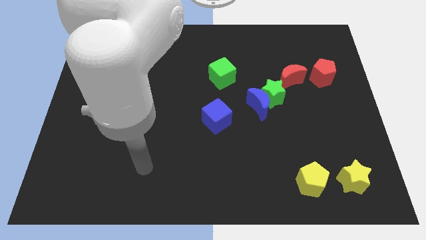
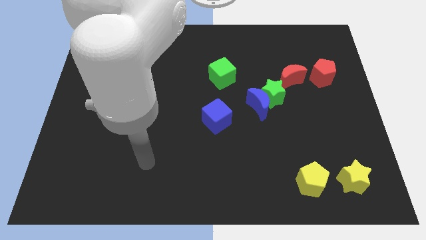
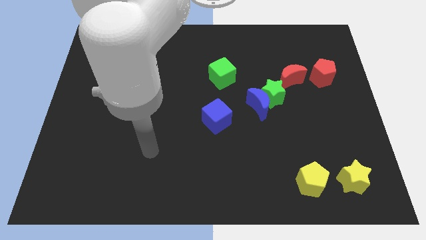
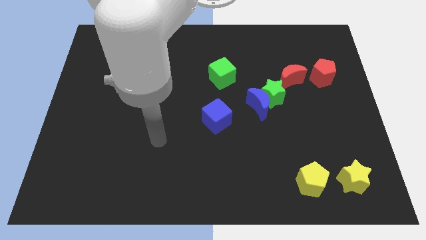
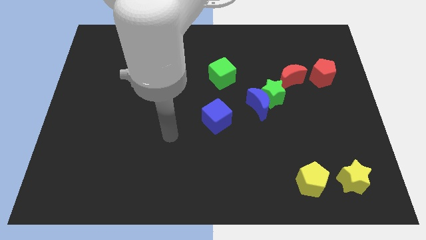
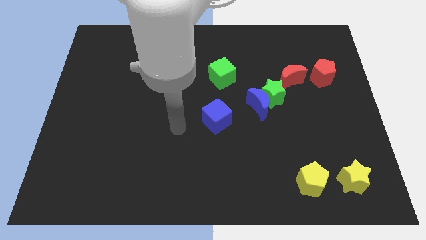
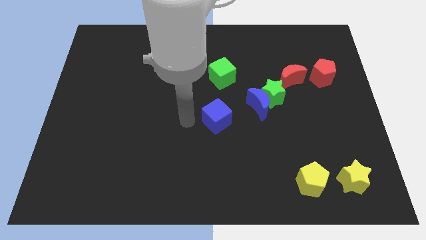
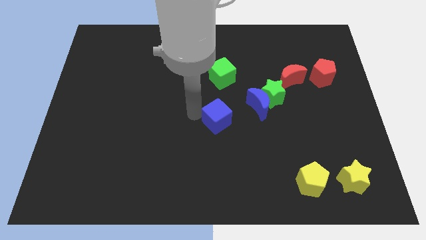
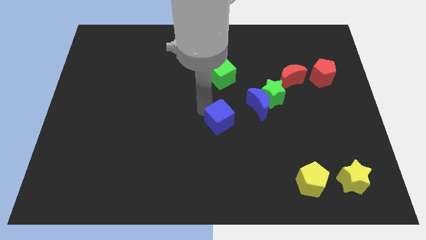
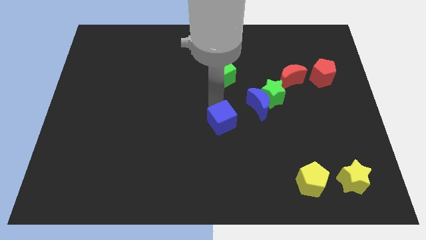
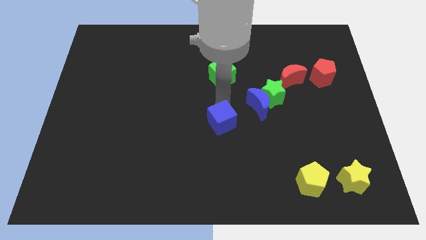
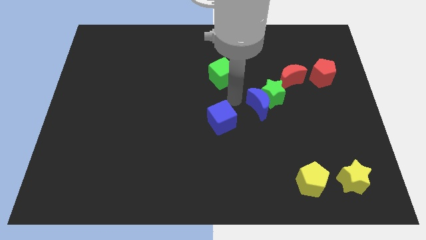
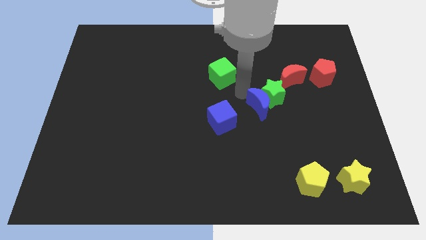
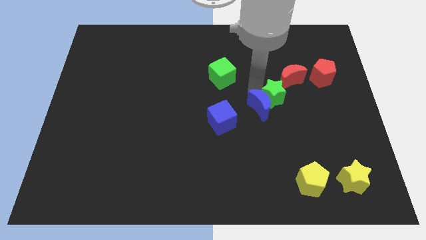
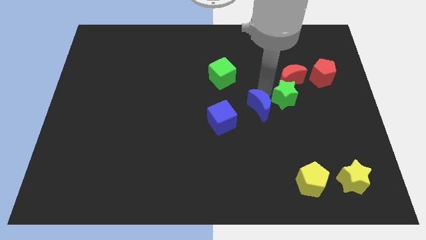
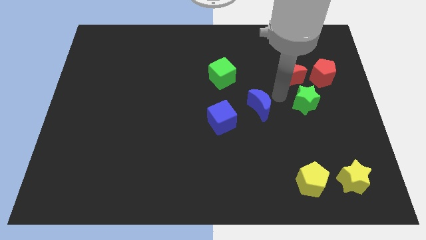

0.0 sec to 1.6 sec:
separate the blue moon from the green star

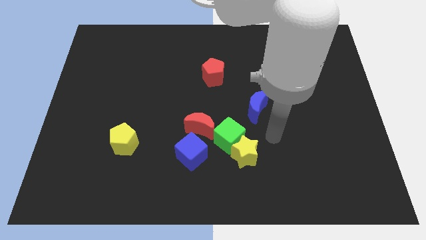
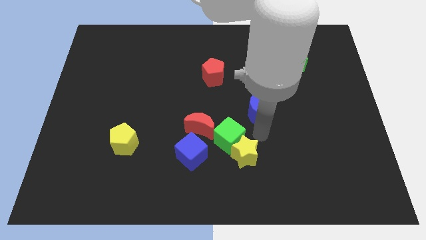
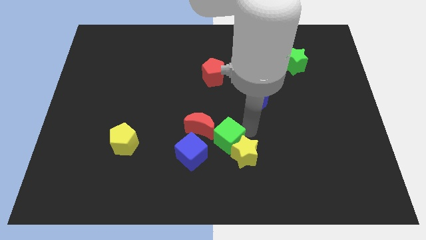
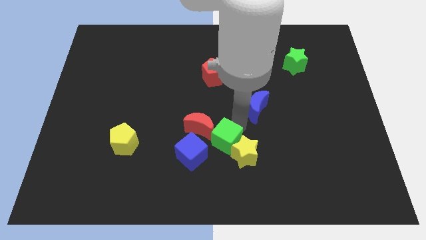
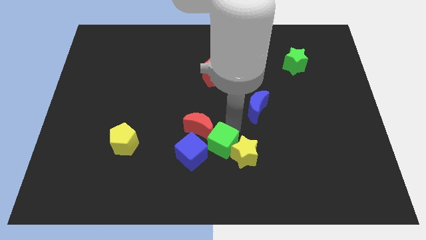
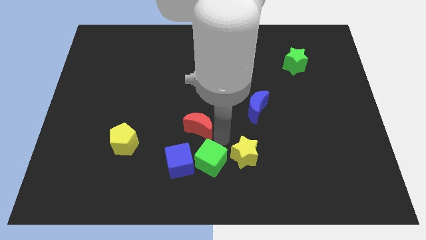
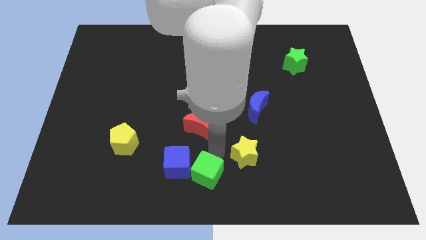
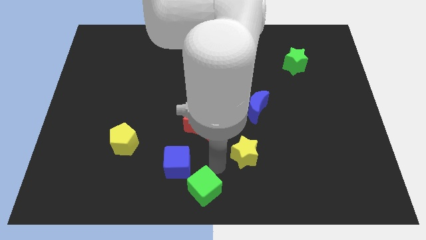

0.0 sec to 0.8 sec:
move the yellow star away from the green cube

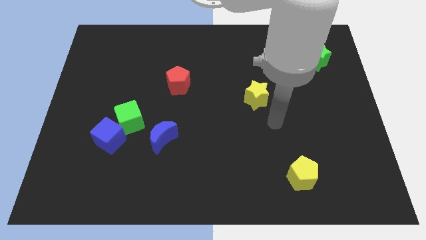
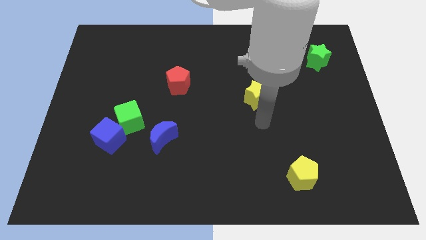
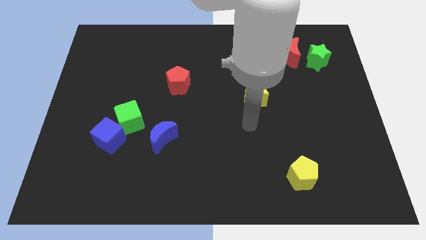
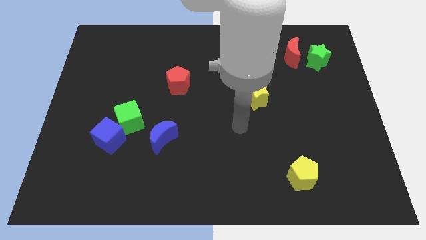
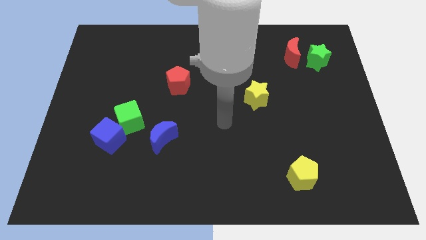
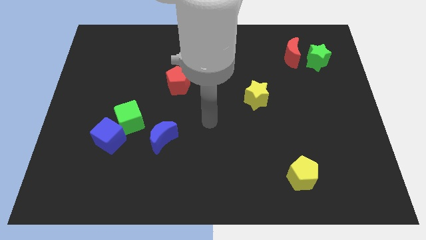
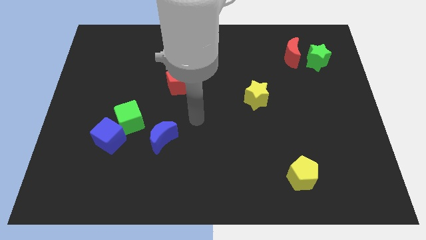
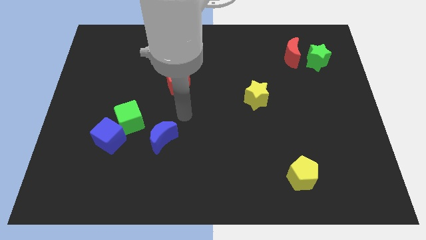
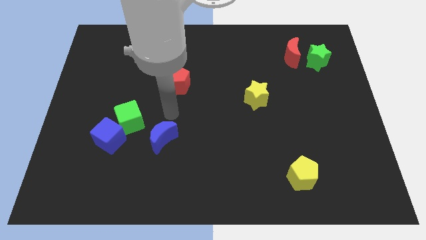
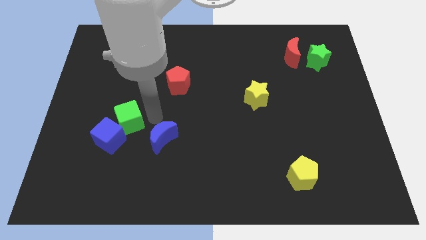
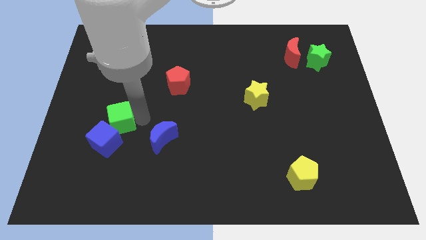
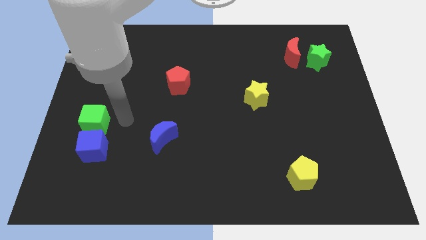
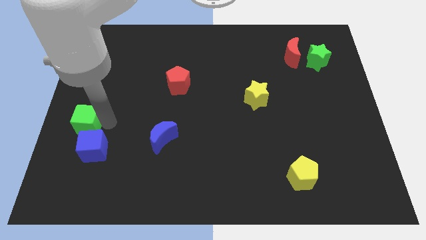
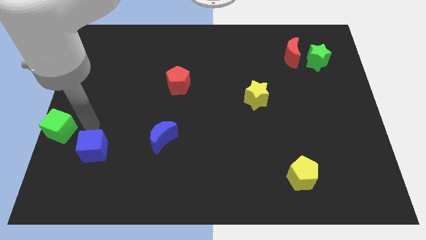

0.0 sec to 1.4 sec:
move the blue cube away from the green cube

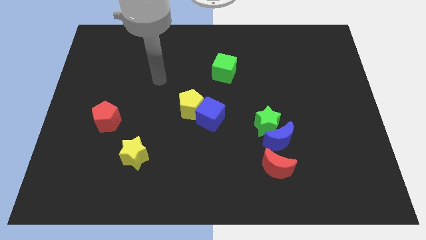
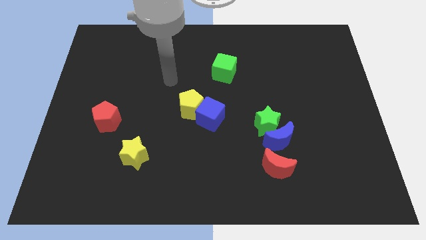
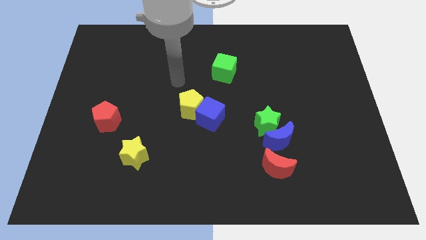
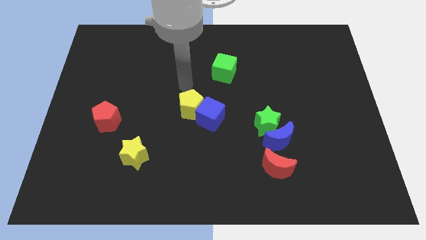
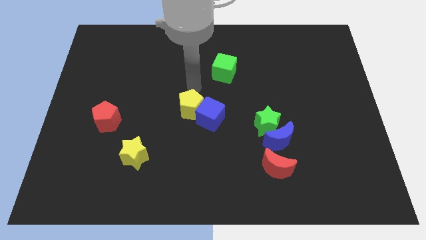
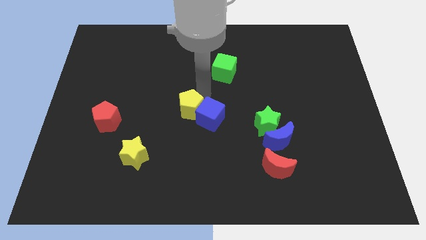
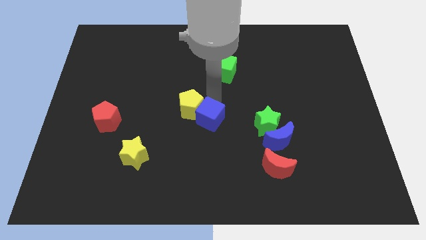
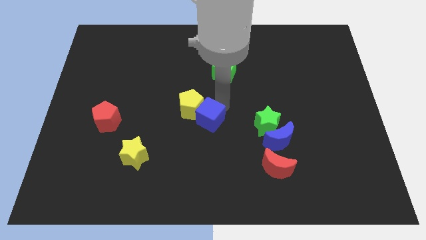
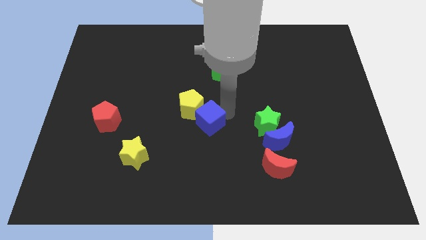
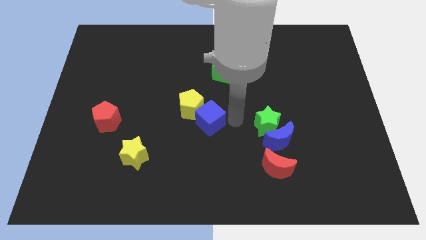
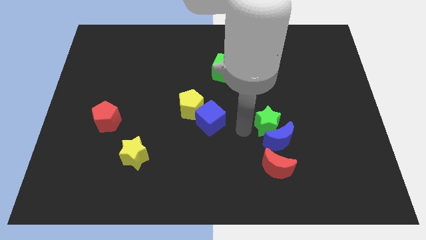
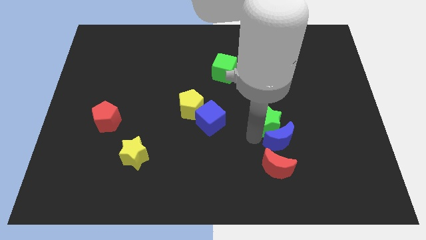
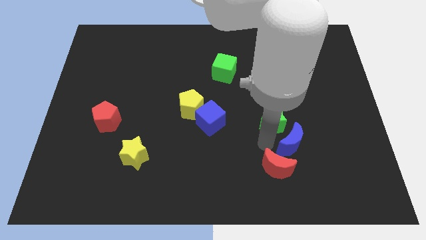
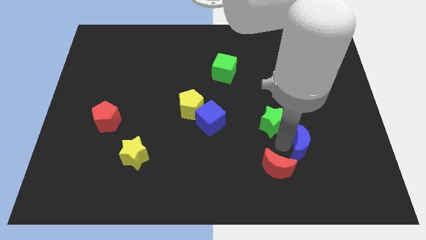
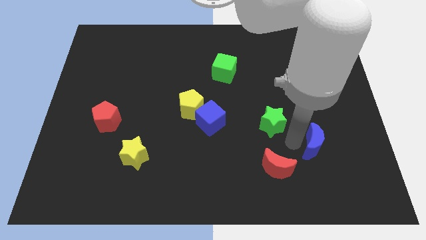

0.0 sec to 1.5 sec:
move the green star away from the blue moon

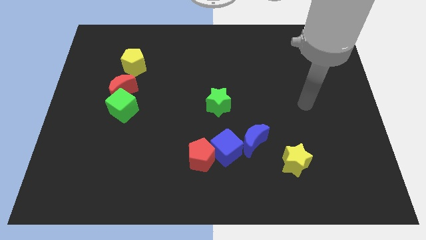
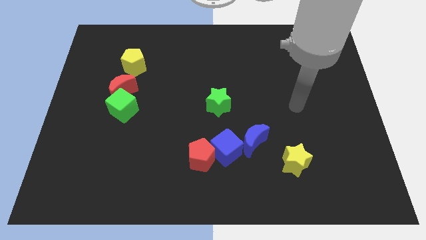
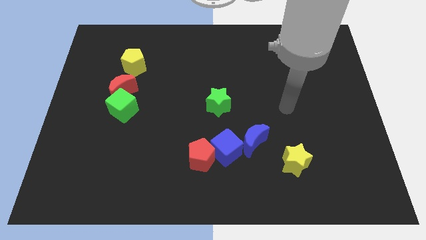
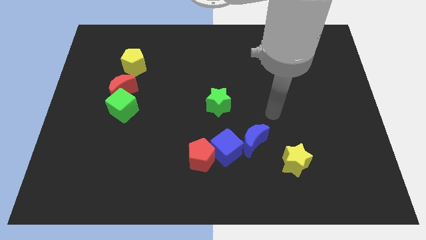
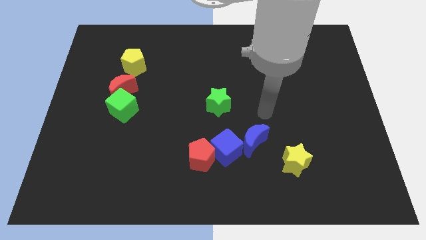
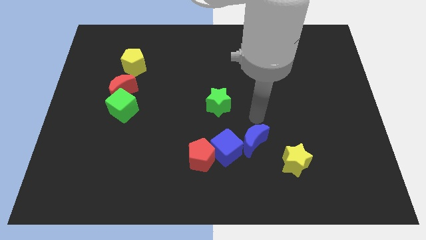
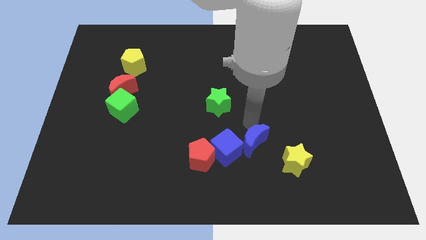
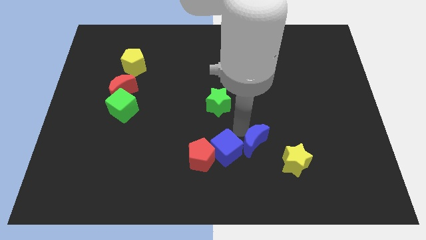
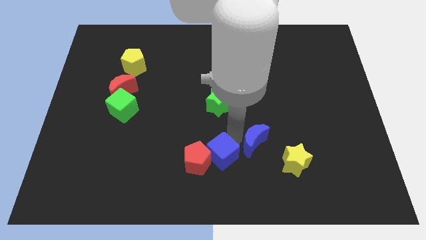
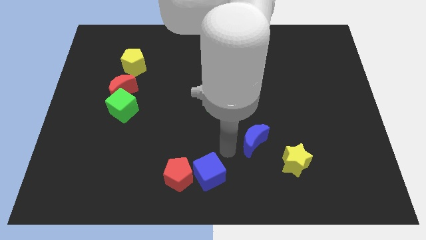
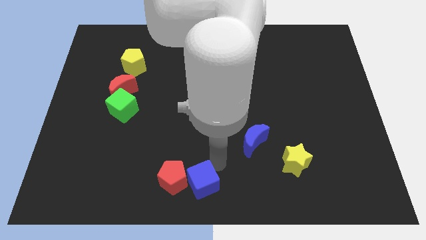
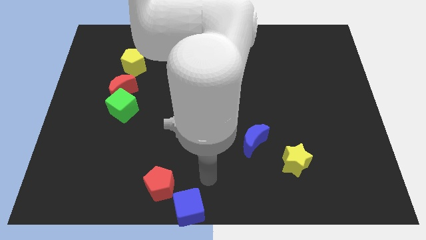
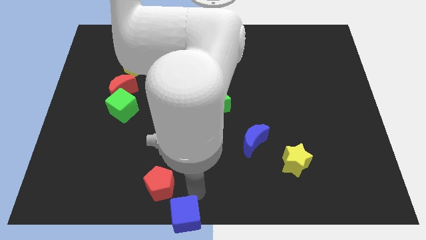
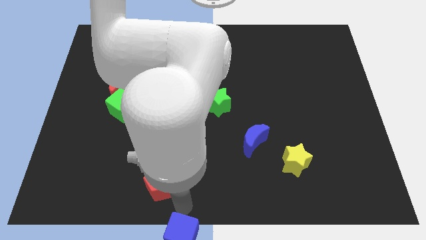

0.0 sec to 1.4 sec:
pull the red pentagon apart from the blue cube

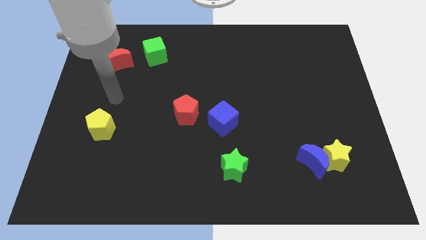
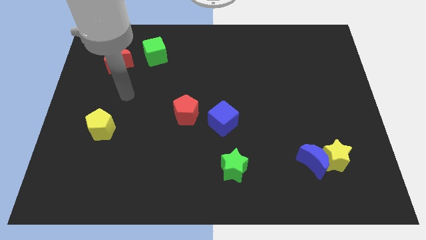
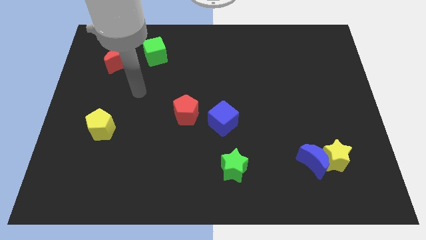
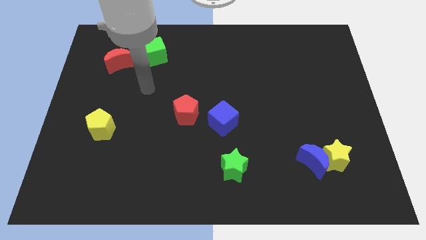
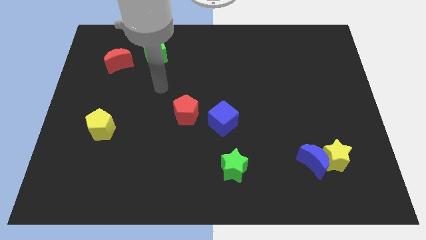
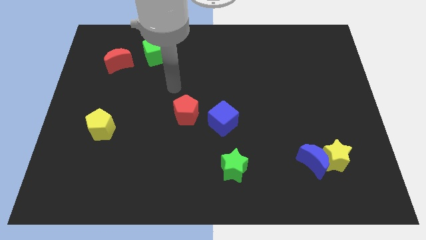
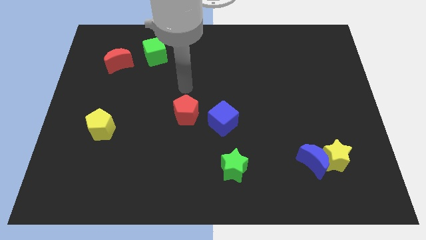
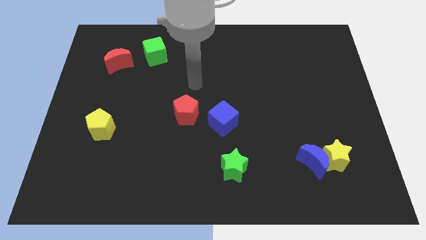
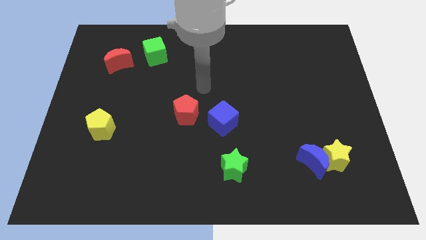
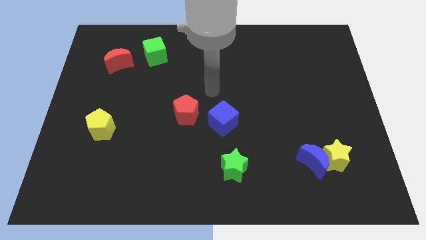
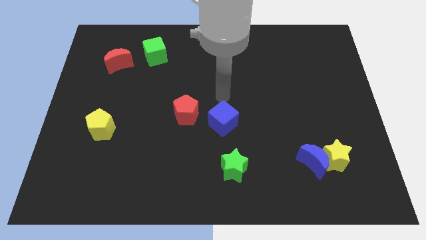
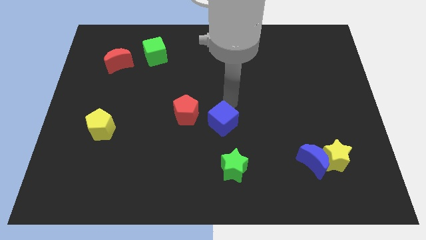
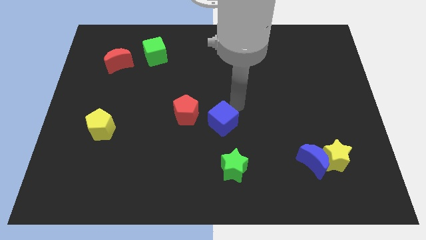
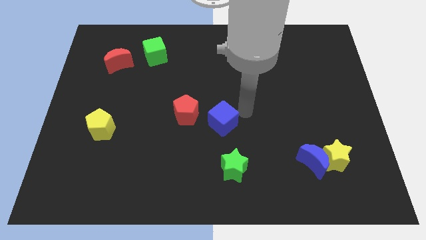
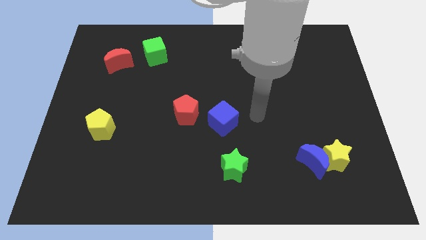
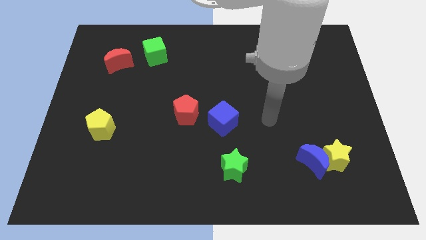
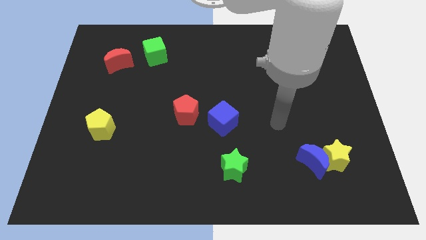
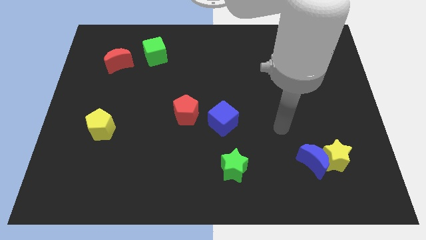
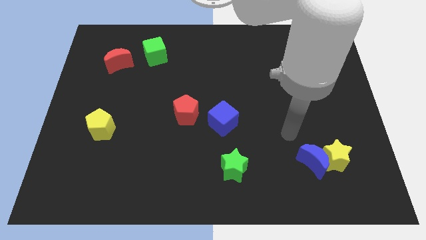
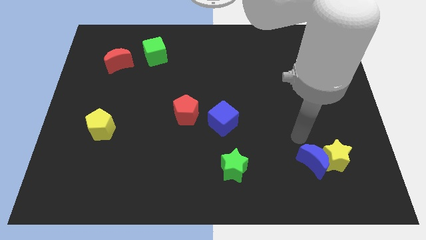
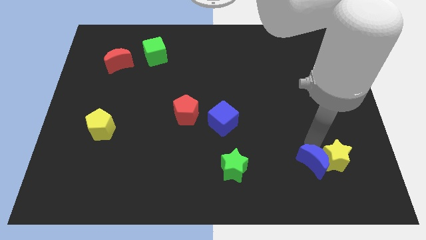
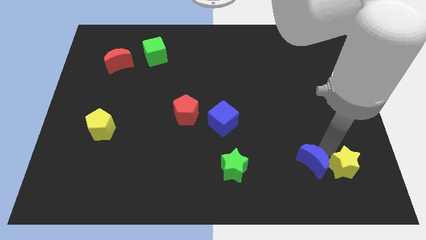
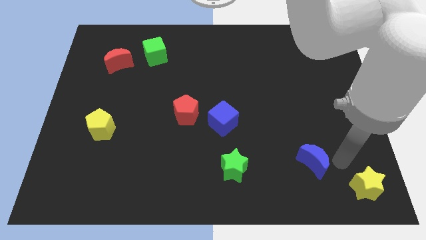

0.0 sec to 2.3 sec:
pull the blue moon apart from the yellow star

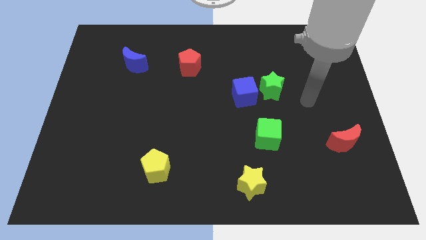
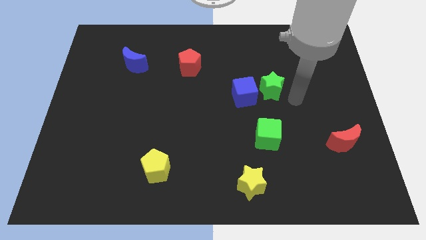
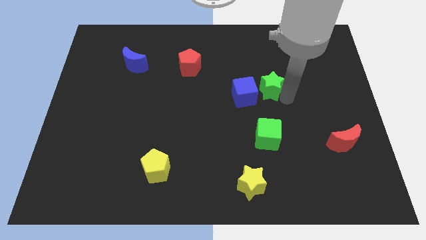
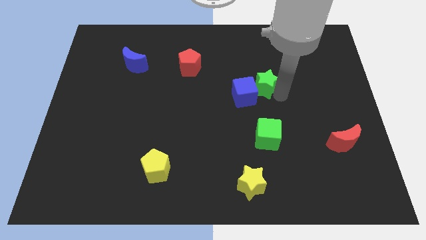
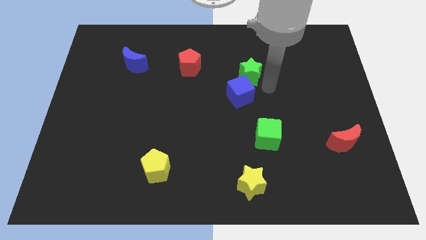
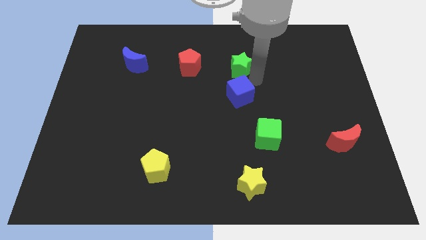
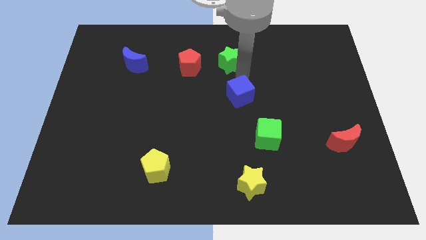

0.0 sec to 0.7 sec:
pull the blue cube apart from the green star
